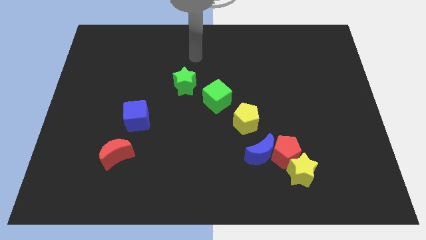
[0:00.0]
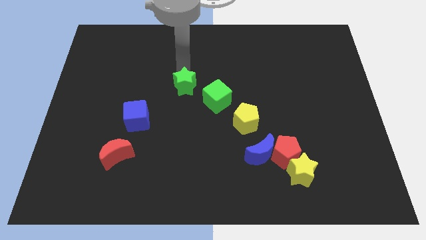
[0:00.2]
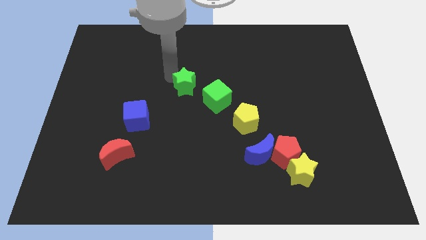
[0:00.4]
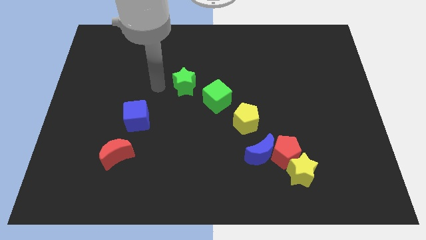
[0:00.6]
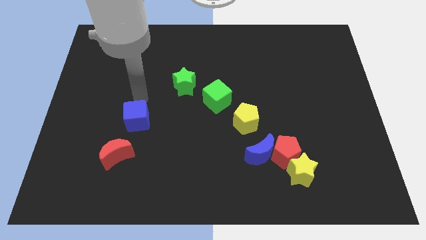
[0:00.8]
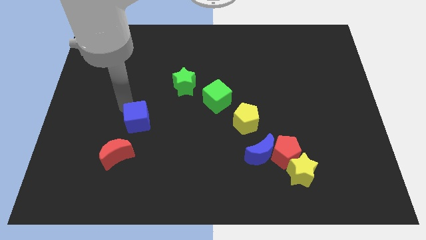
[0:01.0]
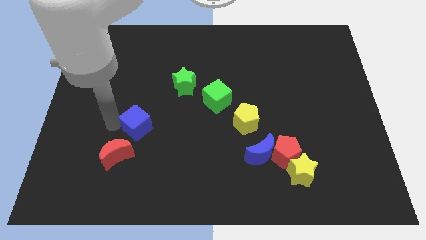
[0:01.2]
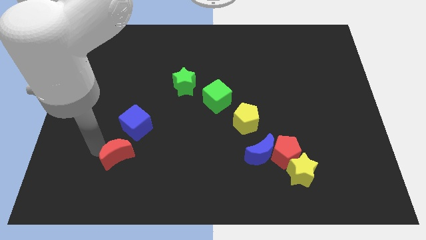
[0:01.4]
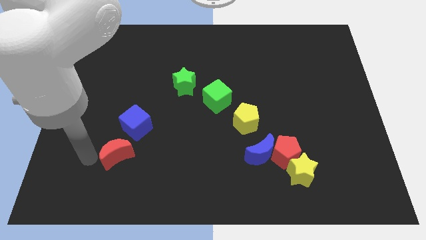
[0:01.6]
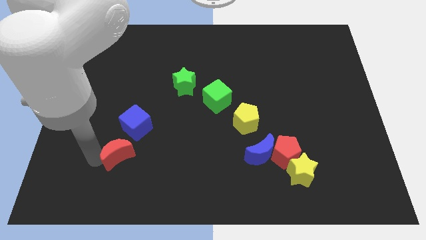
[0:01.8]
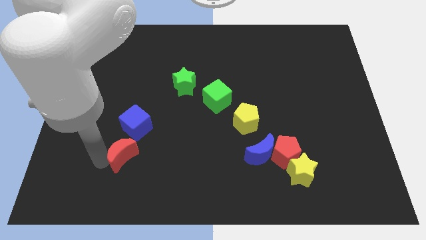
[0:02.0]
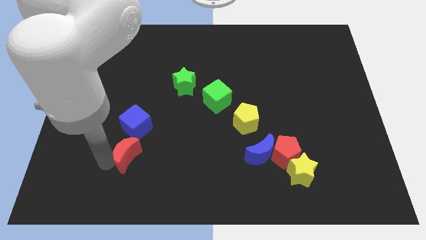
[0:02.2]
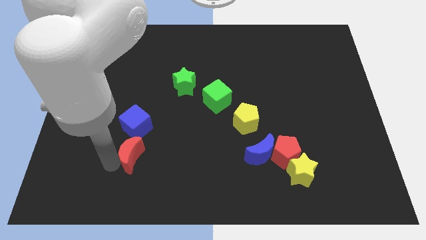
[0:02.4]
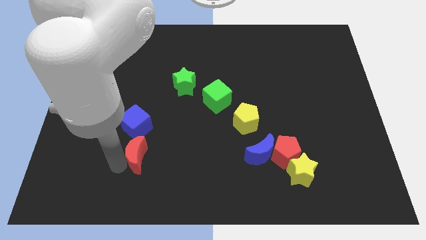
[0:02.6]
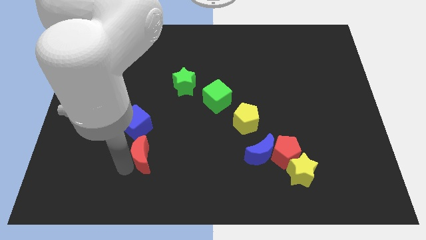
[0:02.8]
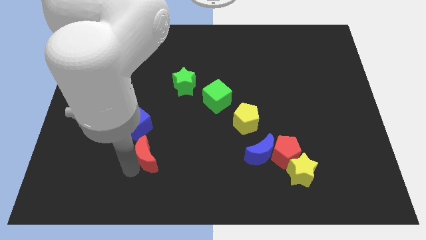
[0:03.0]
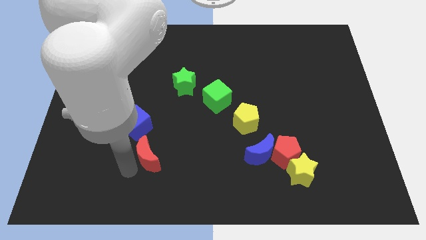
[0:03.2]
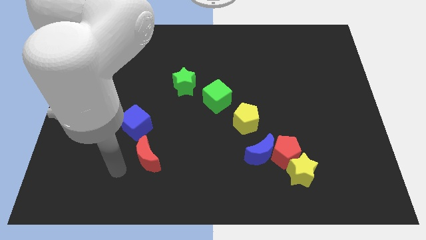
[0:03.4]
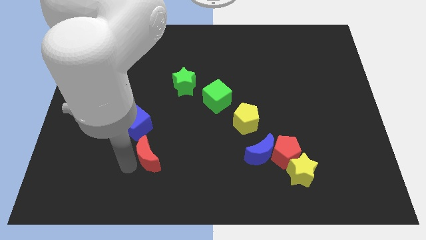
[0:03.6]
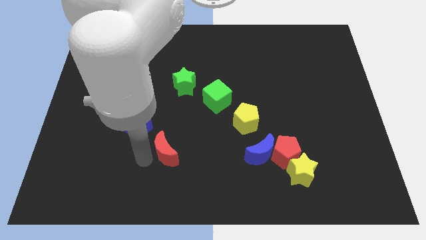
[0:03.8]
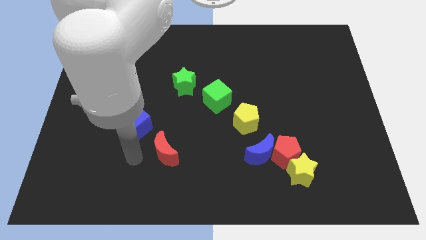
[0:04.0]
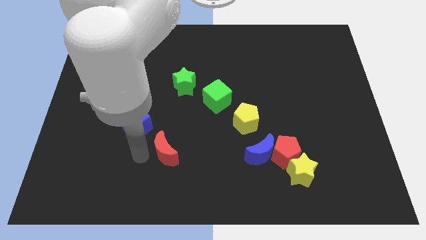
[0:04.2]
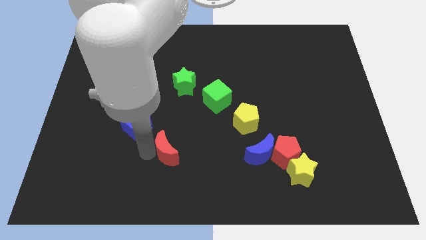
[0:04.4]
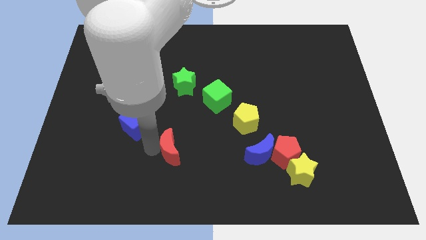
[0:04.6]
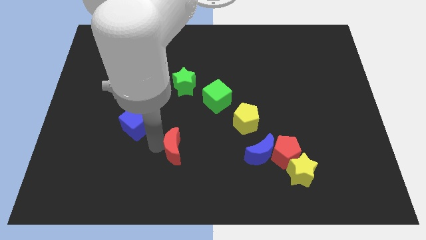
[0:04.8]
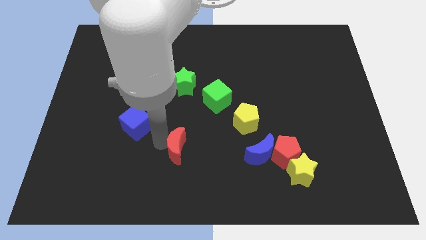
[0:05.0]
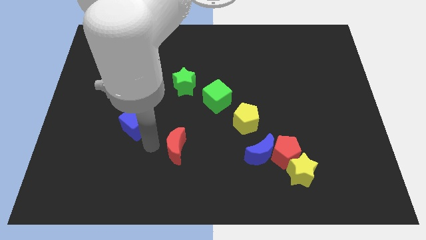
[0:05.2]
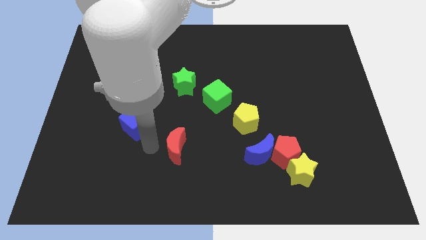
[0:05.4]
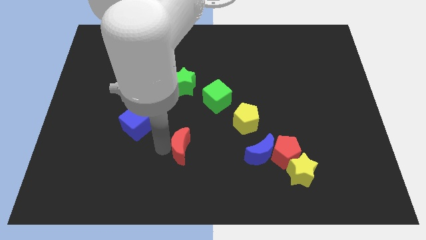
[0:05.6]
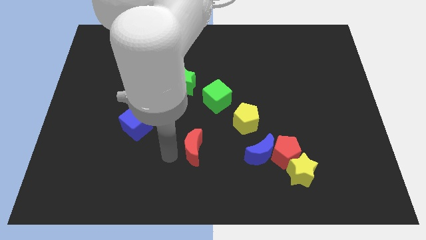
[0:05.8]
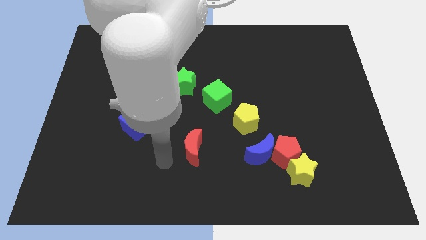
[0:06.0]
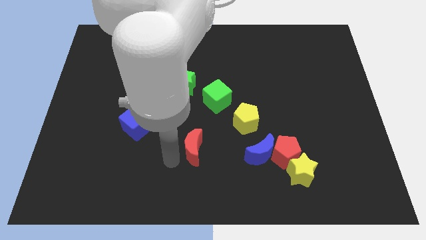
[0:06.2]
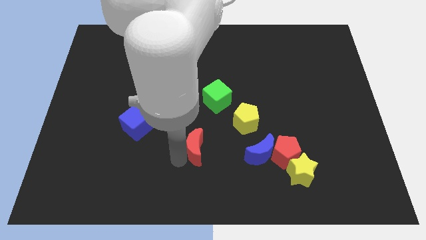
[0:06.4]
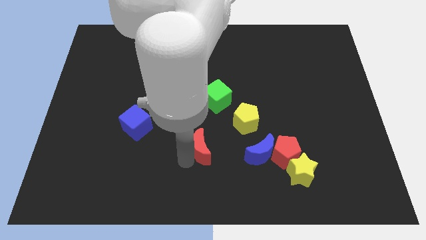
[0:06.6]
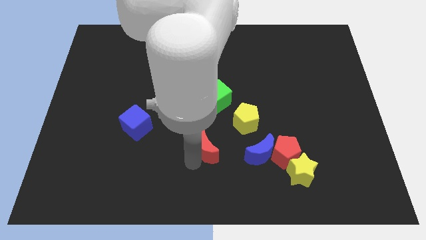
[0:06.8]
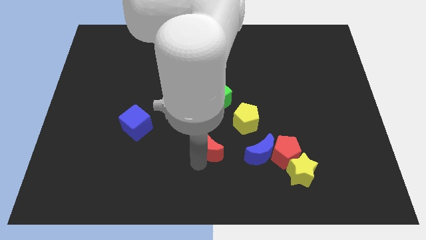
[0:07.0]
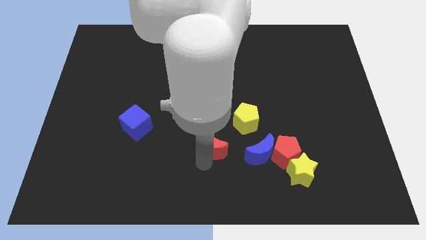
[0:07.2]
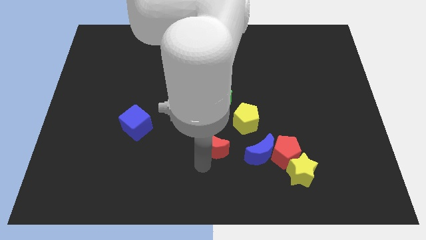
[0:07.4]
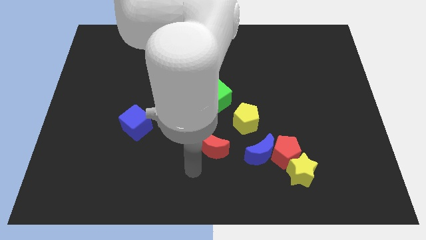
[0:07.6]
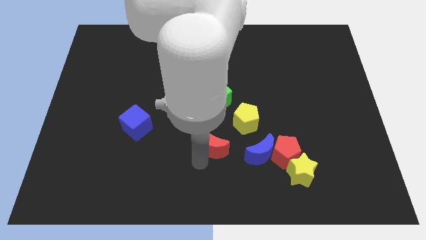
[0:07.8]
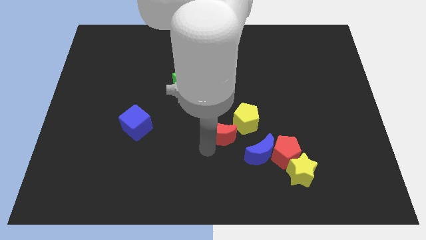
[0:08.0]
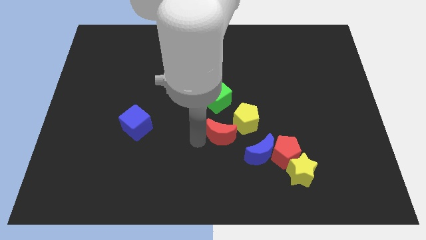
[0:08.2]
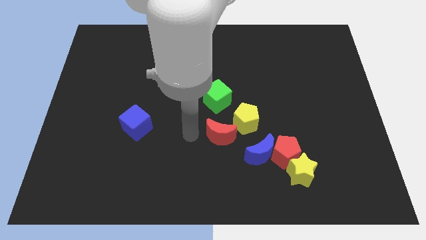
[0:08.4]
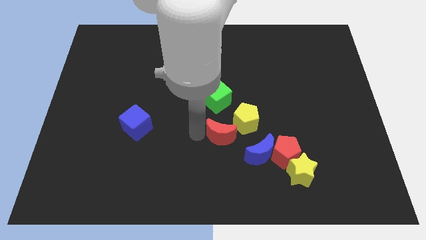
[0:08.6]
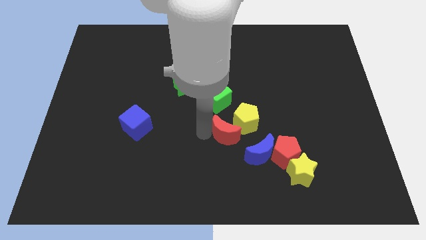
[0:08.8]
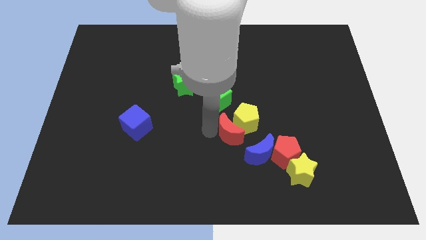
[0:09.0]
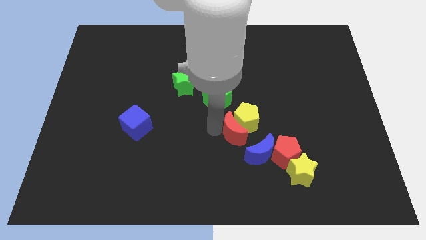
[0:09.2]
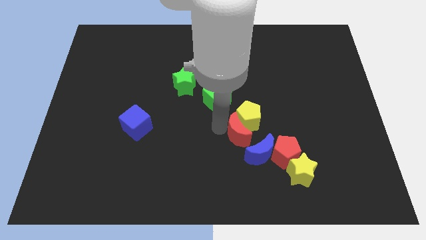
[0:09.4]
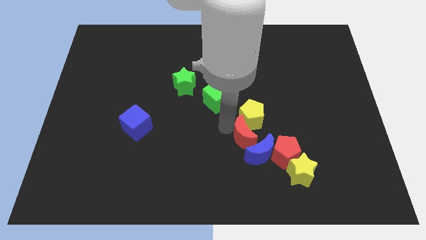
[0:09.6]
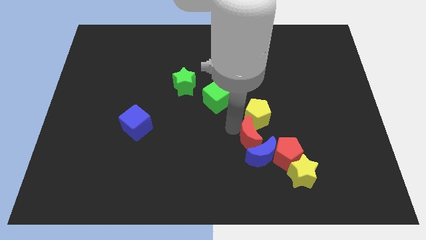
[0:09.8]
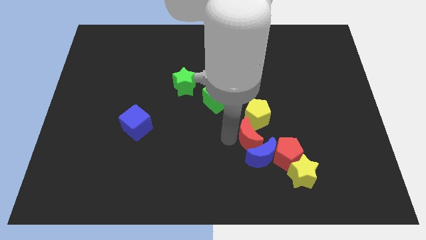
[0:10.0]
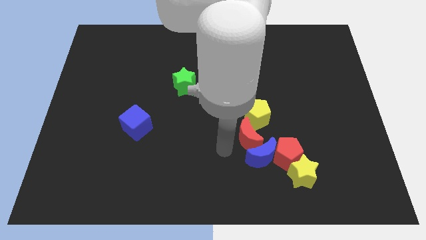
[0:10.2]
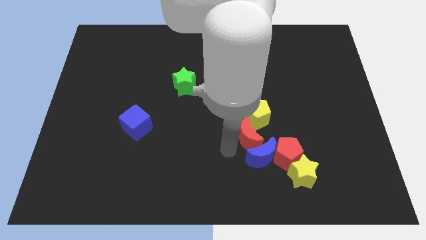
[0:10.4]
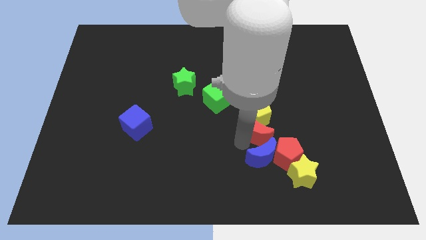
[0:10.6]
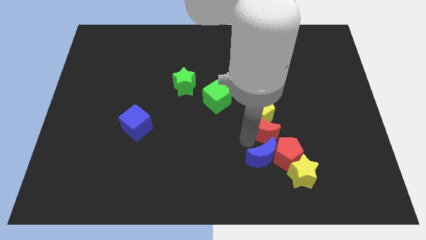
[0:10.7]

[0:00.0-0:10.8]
push the red moon to the top side of the red pentagon

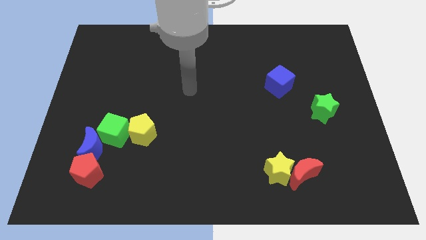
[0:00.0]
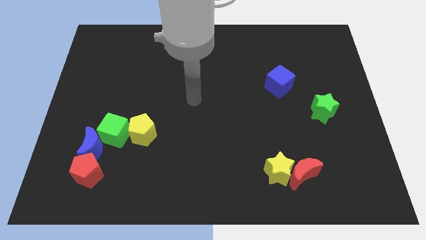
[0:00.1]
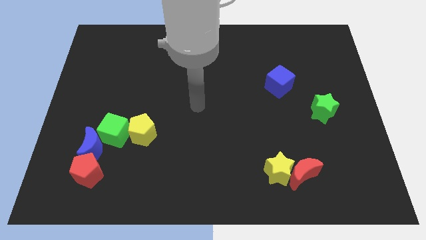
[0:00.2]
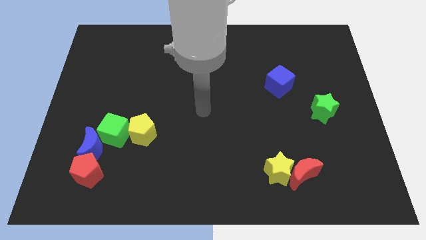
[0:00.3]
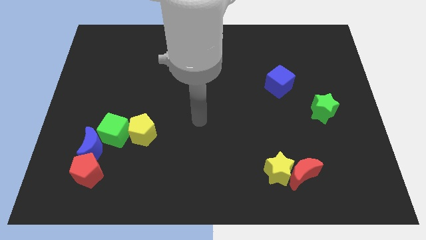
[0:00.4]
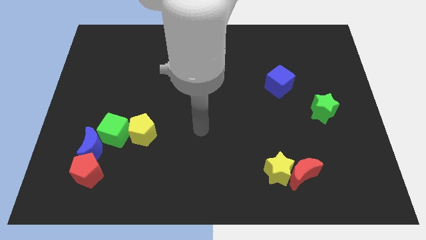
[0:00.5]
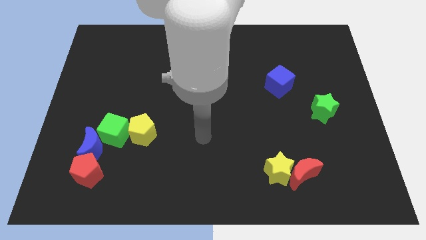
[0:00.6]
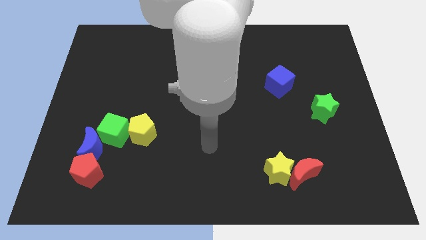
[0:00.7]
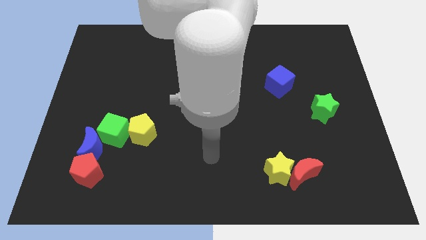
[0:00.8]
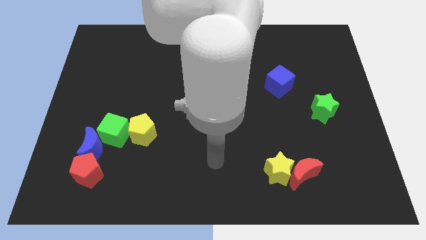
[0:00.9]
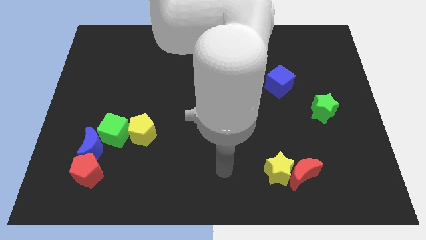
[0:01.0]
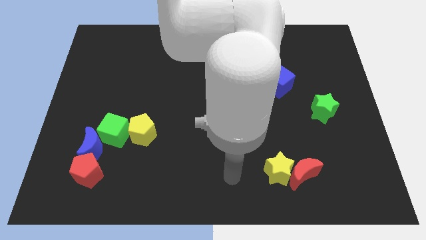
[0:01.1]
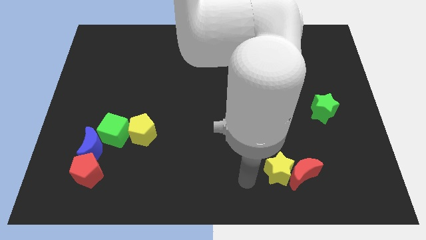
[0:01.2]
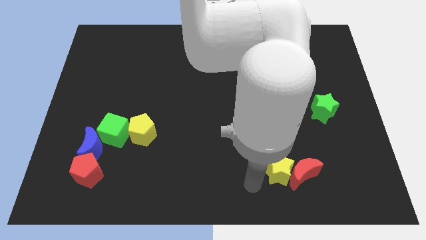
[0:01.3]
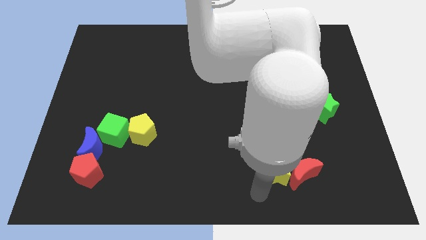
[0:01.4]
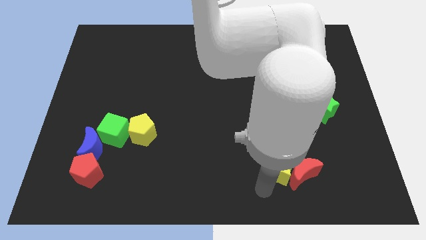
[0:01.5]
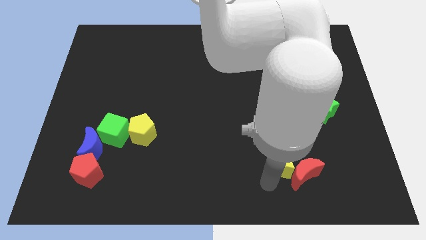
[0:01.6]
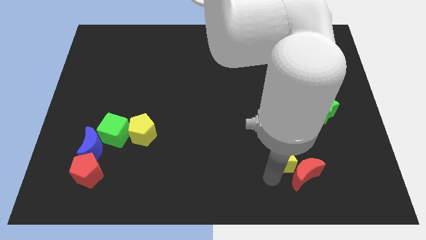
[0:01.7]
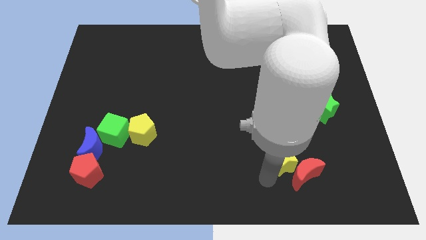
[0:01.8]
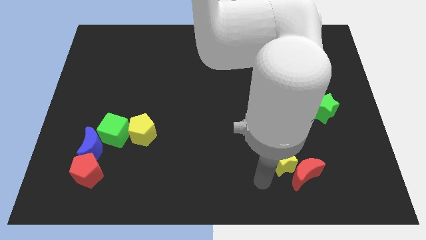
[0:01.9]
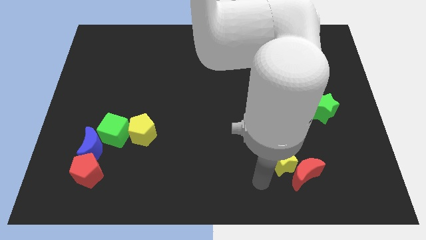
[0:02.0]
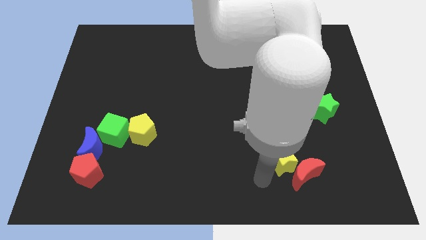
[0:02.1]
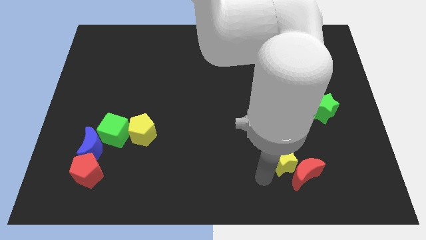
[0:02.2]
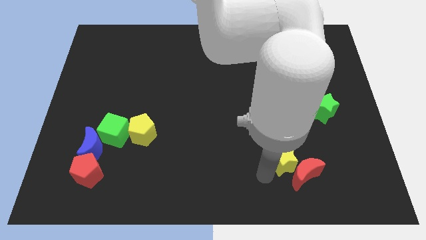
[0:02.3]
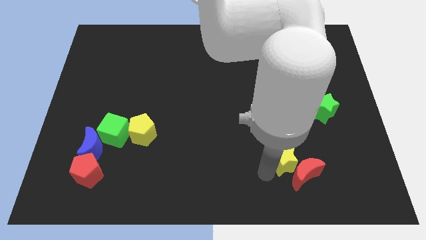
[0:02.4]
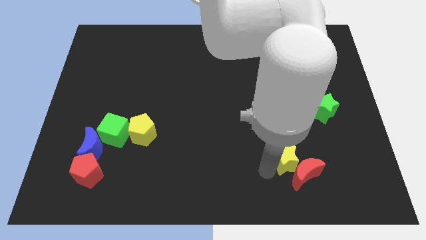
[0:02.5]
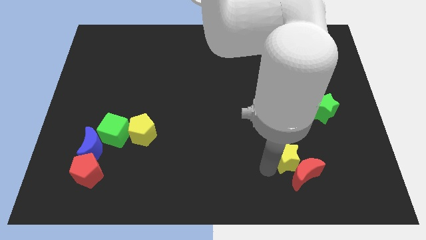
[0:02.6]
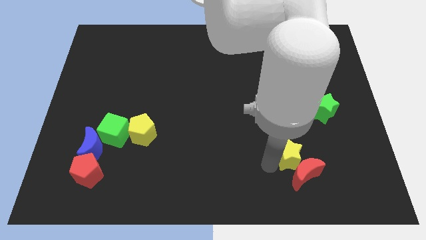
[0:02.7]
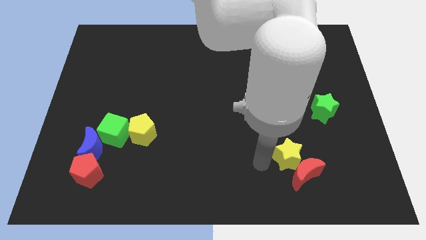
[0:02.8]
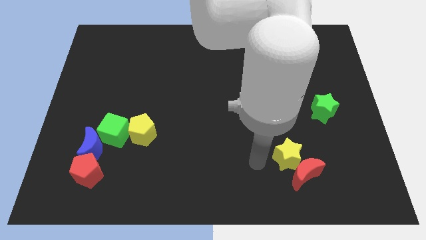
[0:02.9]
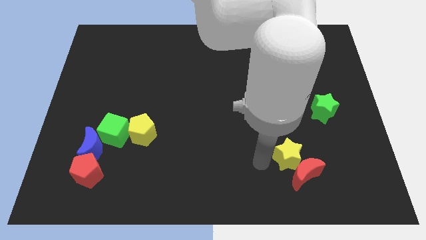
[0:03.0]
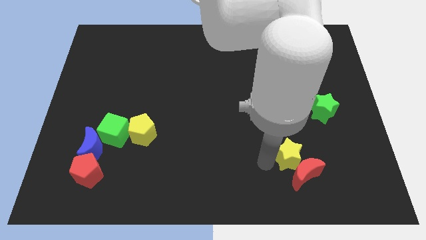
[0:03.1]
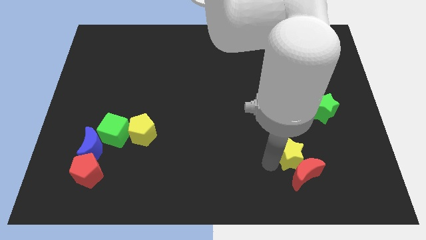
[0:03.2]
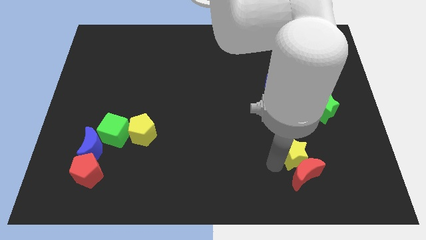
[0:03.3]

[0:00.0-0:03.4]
slide the yellow star to the top right of the red moon
